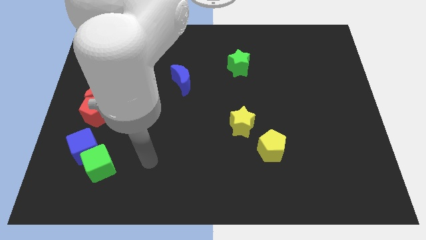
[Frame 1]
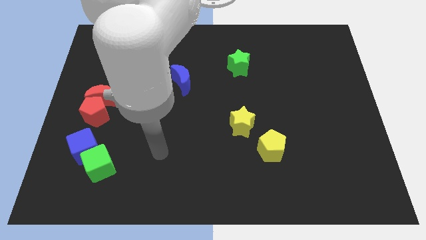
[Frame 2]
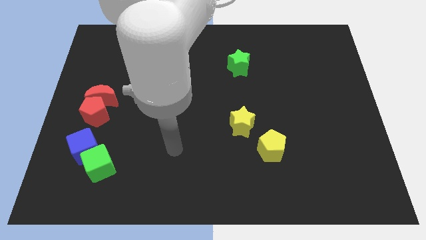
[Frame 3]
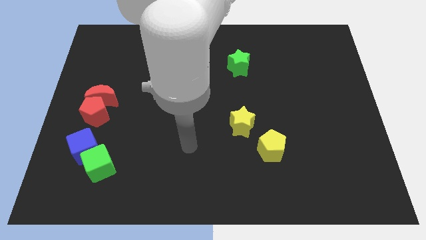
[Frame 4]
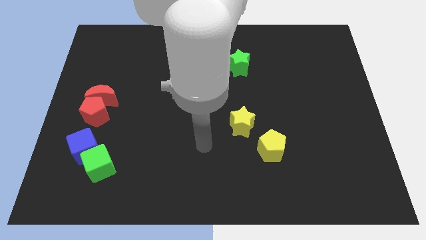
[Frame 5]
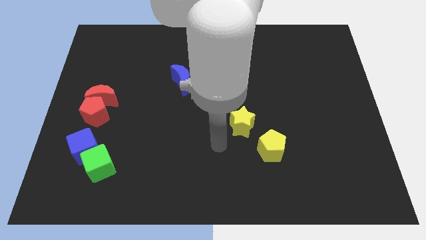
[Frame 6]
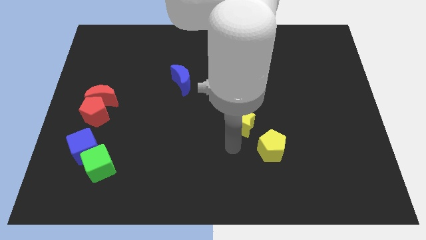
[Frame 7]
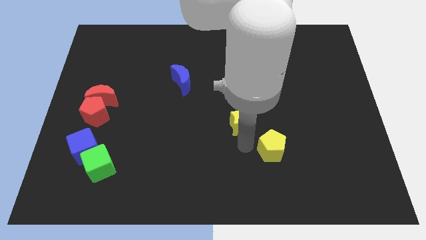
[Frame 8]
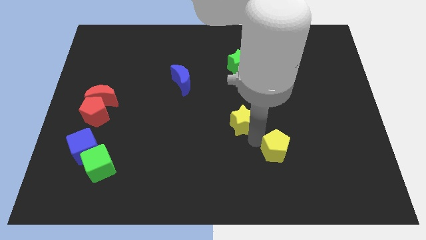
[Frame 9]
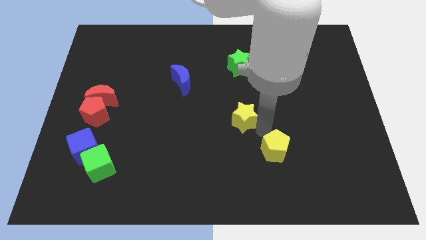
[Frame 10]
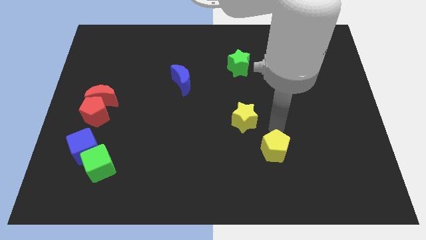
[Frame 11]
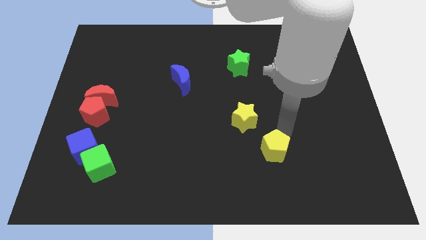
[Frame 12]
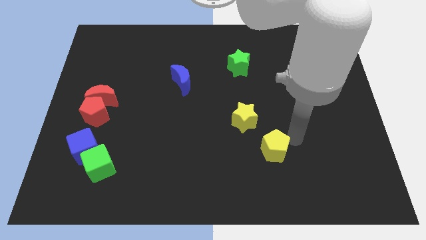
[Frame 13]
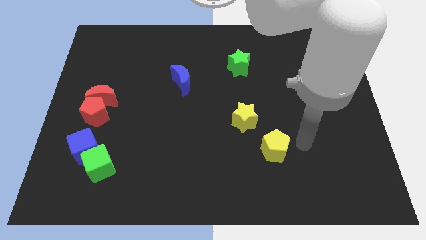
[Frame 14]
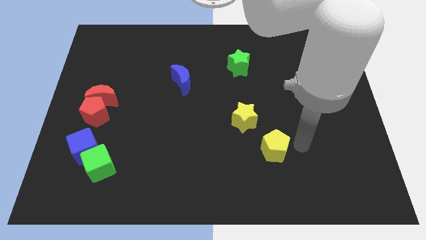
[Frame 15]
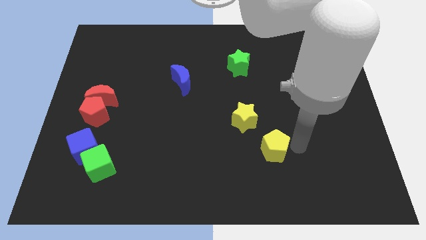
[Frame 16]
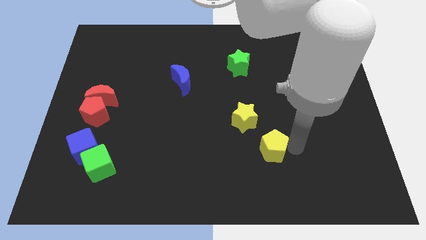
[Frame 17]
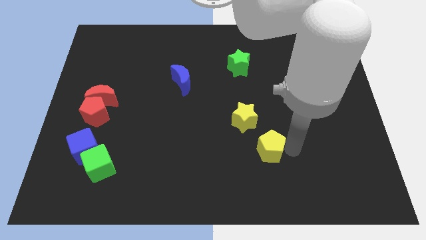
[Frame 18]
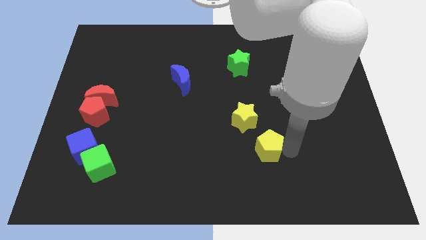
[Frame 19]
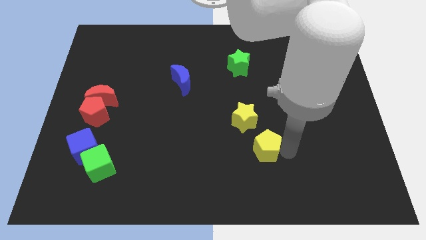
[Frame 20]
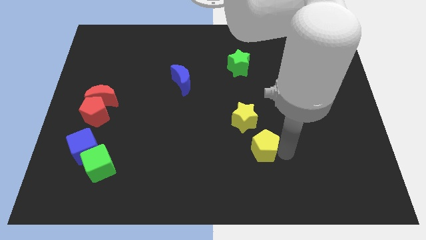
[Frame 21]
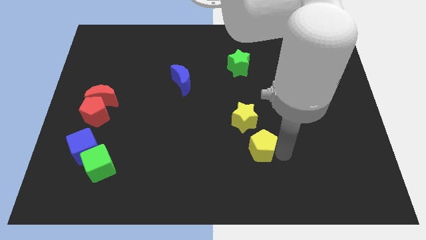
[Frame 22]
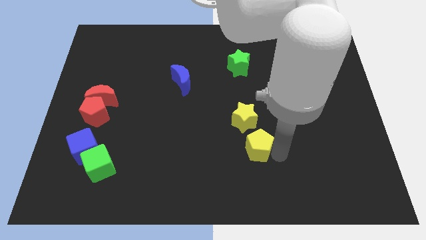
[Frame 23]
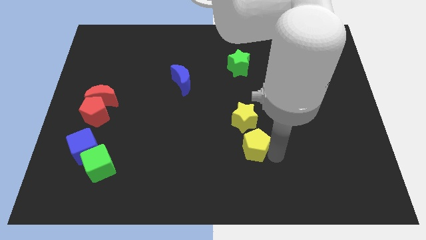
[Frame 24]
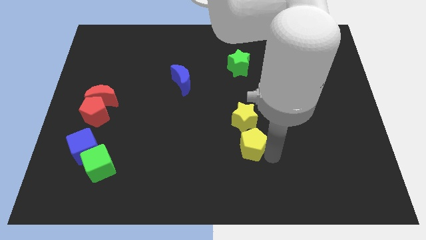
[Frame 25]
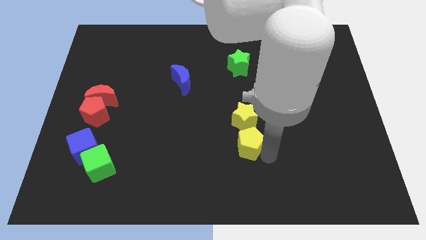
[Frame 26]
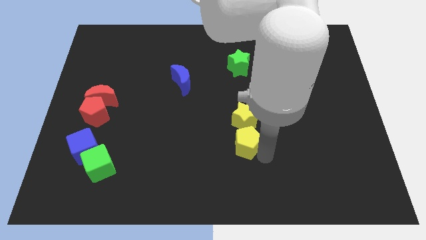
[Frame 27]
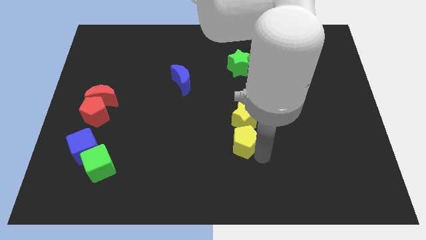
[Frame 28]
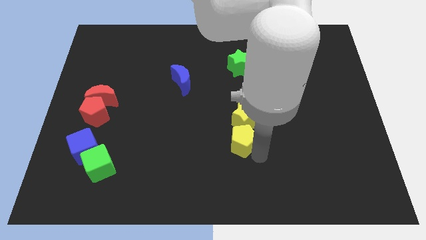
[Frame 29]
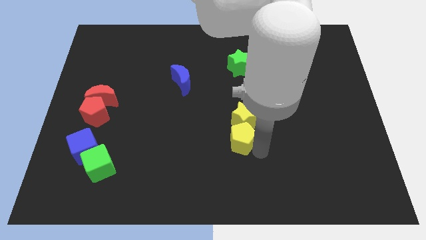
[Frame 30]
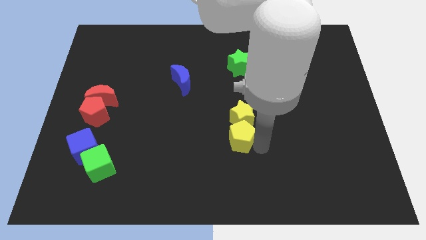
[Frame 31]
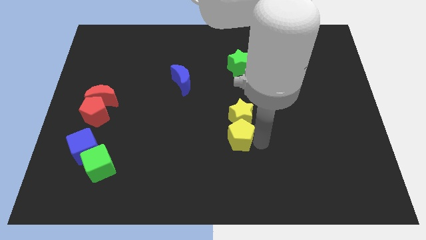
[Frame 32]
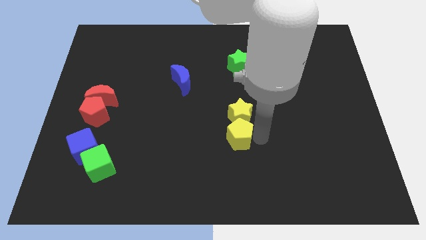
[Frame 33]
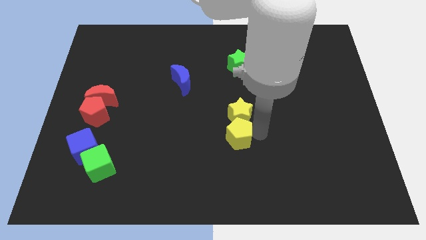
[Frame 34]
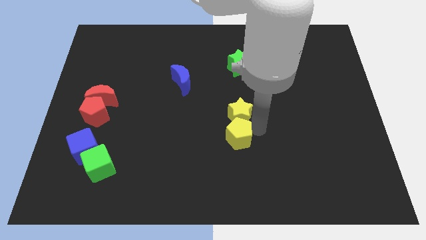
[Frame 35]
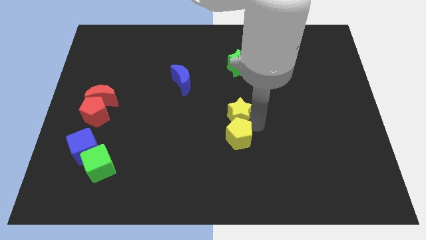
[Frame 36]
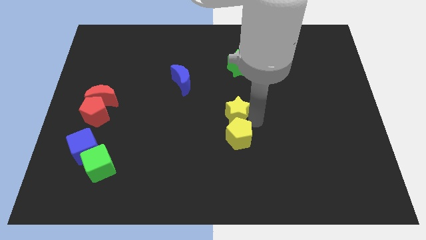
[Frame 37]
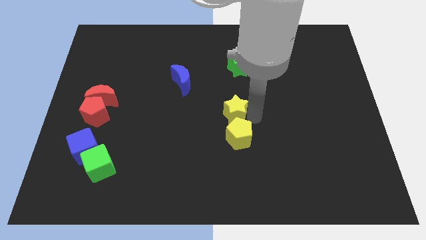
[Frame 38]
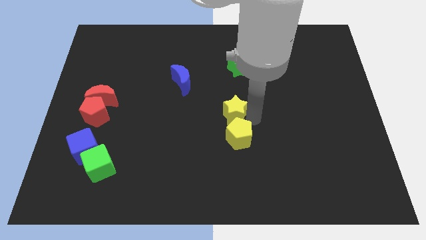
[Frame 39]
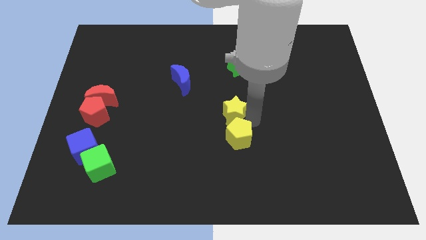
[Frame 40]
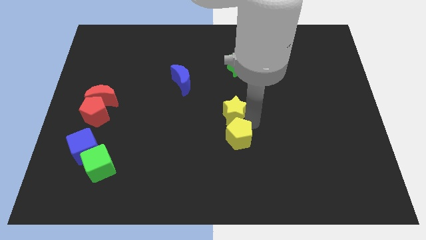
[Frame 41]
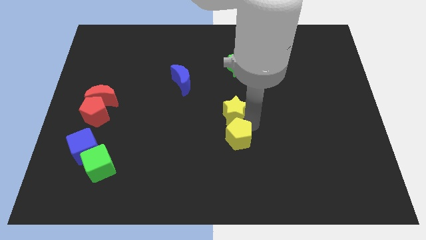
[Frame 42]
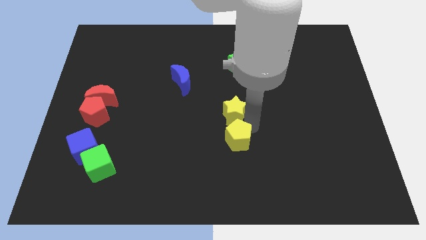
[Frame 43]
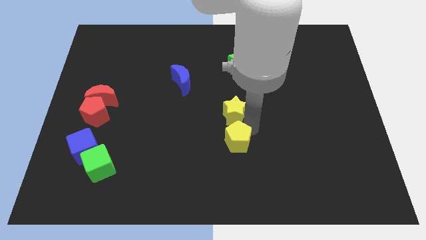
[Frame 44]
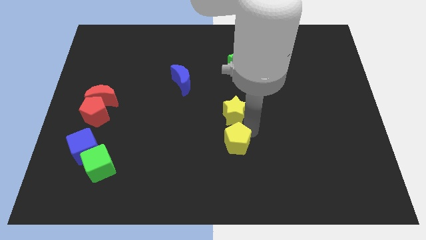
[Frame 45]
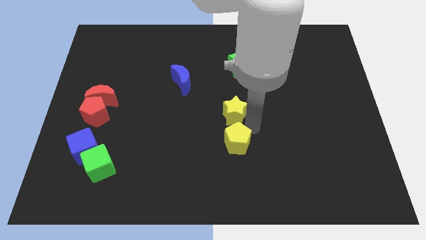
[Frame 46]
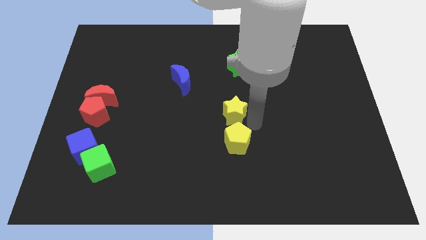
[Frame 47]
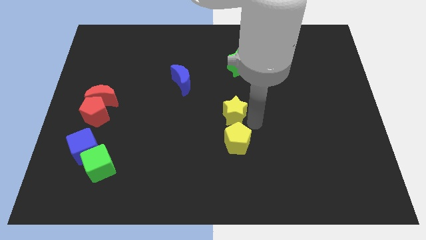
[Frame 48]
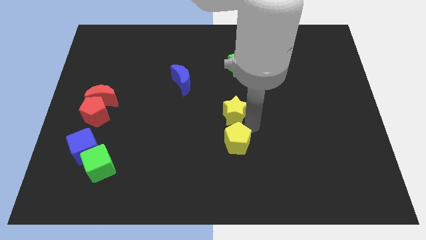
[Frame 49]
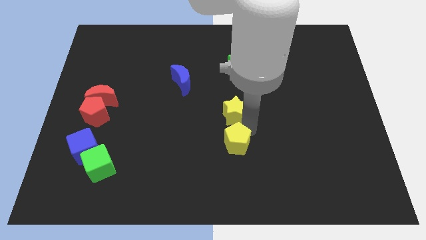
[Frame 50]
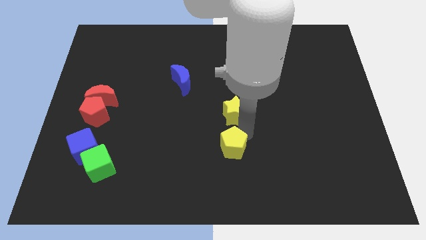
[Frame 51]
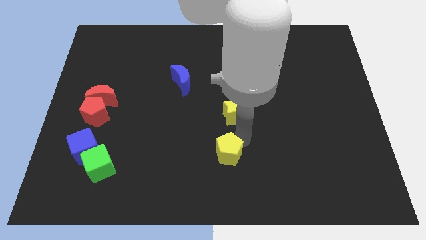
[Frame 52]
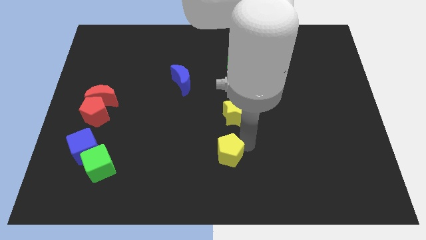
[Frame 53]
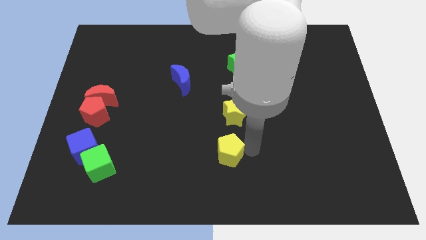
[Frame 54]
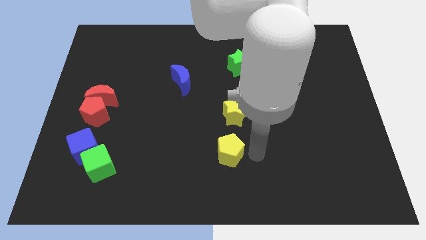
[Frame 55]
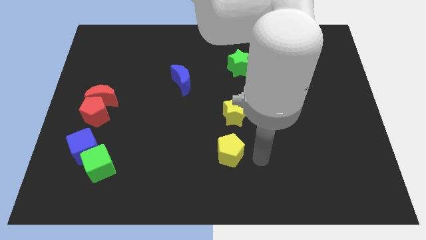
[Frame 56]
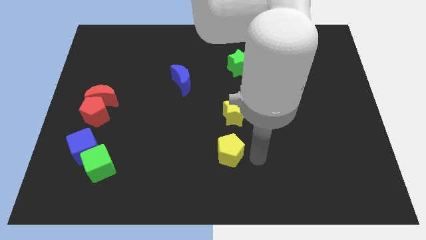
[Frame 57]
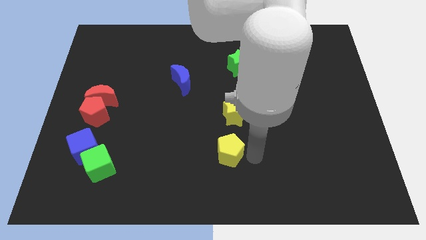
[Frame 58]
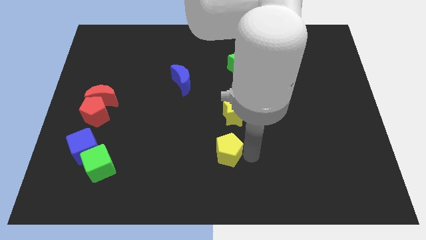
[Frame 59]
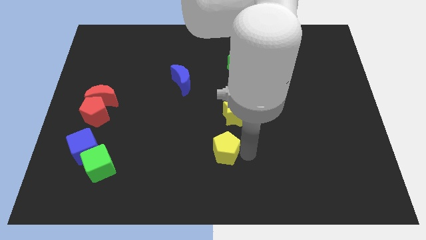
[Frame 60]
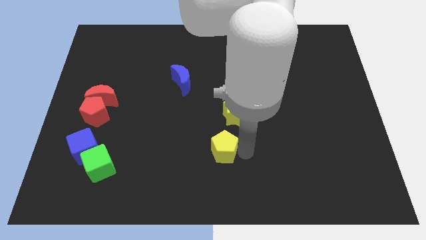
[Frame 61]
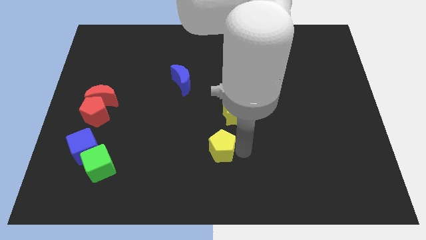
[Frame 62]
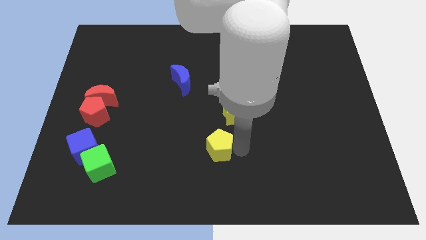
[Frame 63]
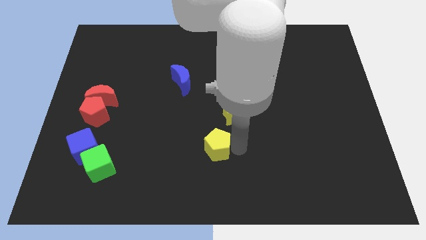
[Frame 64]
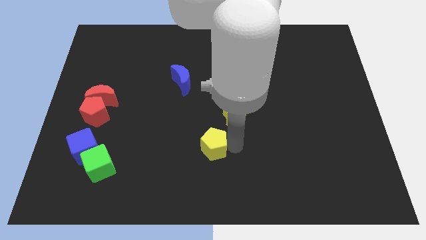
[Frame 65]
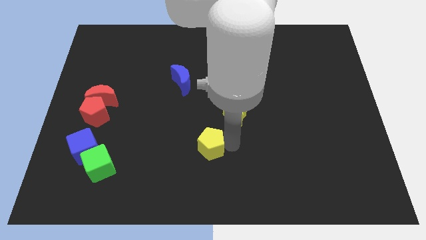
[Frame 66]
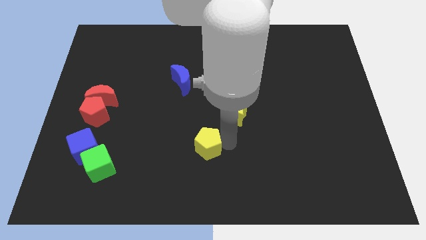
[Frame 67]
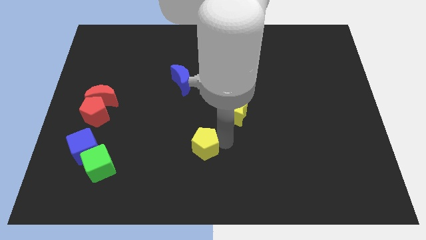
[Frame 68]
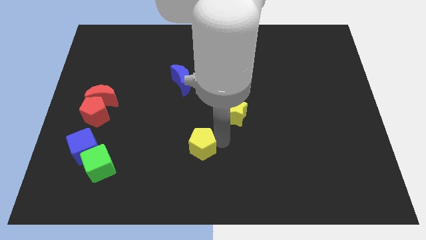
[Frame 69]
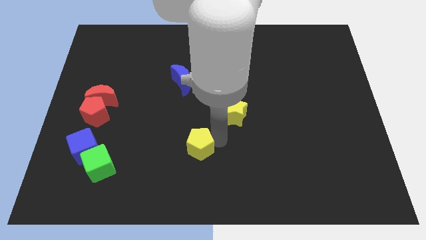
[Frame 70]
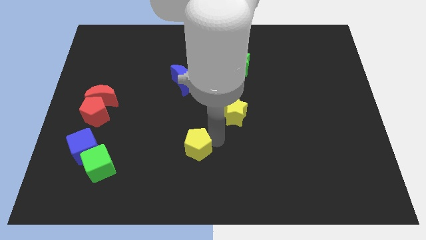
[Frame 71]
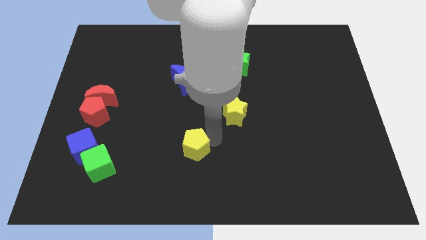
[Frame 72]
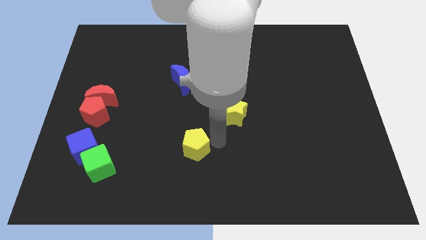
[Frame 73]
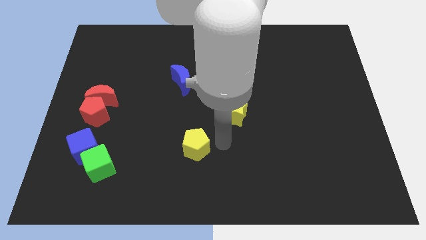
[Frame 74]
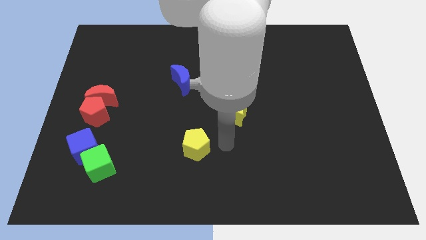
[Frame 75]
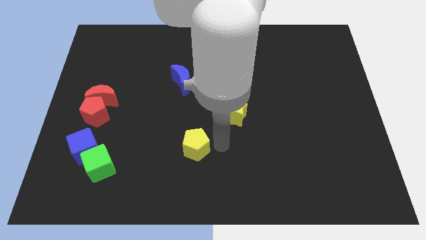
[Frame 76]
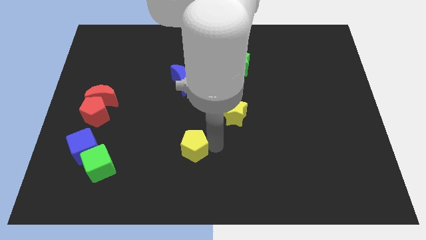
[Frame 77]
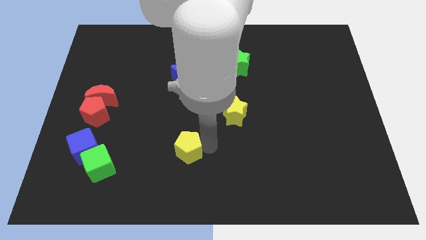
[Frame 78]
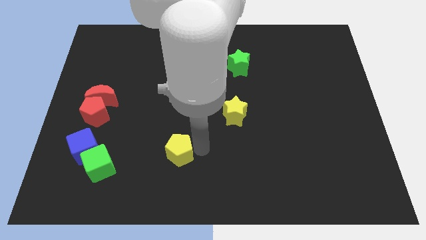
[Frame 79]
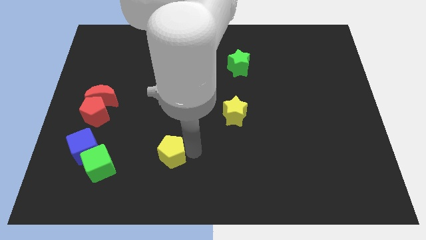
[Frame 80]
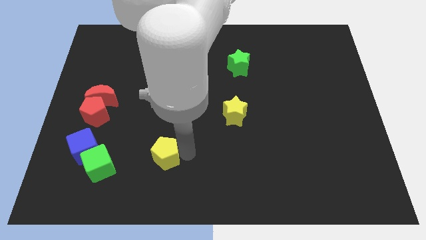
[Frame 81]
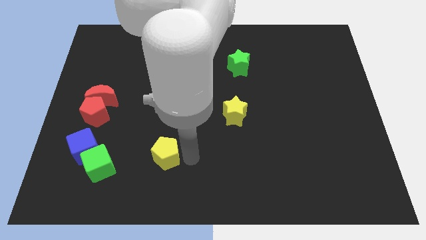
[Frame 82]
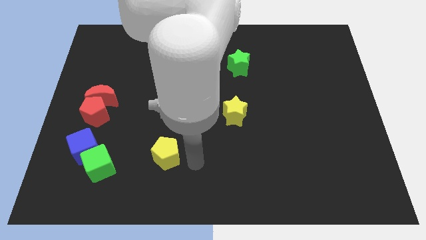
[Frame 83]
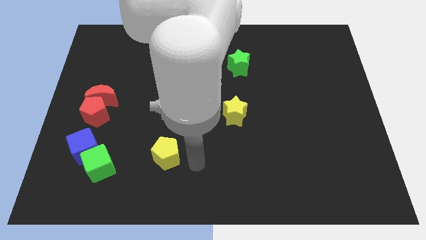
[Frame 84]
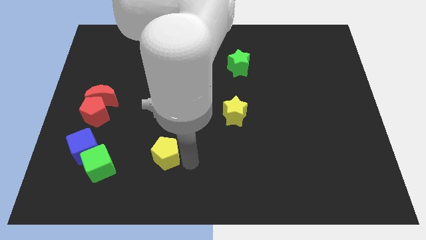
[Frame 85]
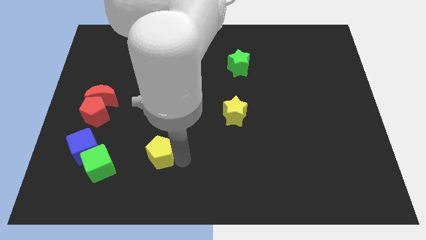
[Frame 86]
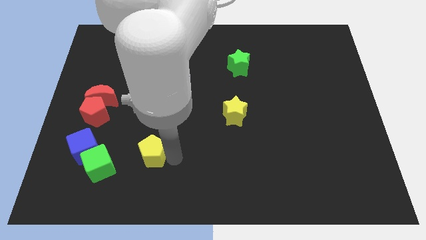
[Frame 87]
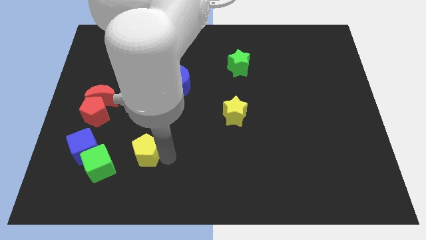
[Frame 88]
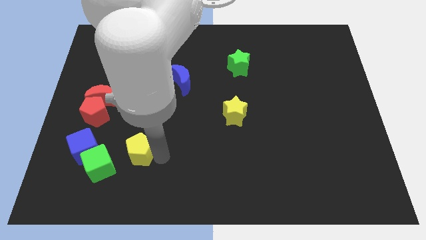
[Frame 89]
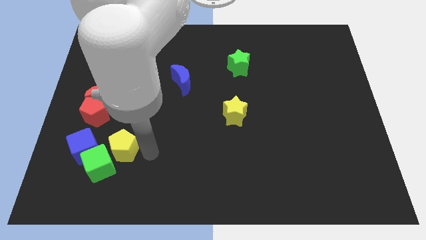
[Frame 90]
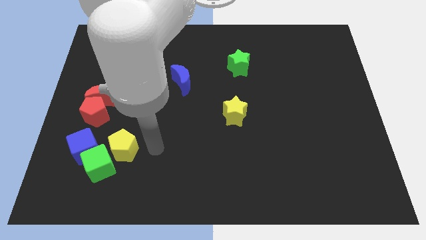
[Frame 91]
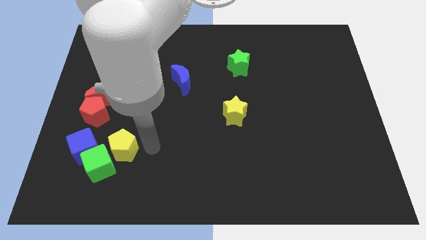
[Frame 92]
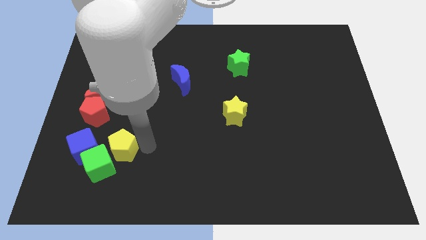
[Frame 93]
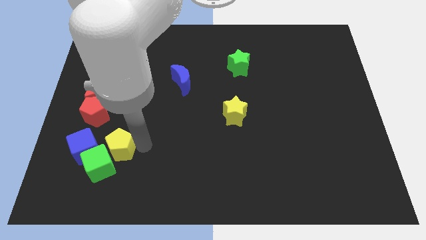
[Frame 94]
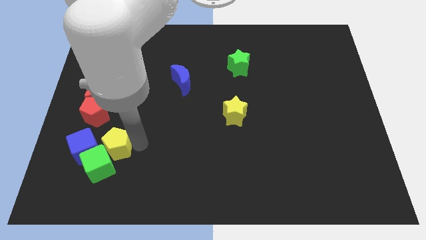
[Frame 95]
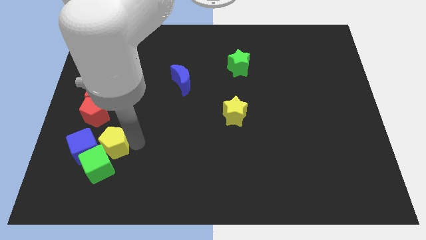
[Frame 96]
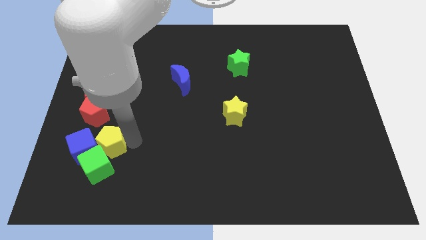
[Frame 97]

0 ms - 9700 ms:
put the yellow pentagon towards the blue cube
